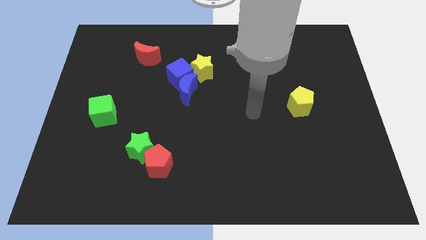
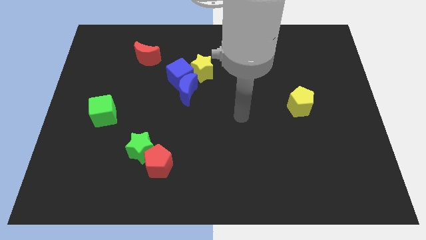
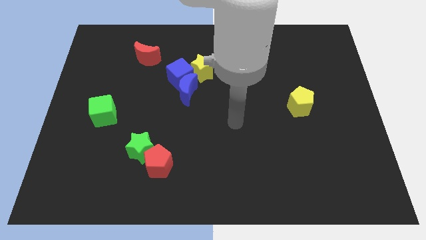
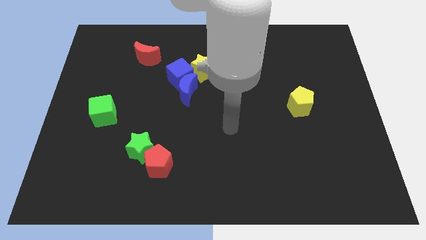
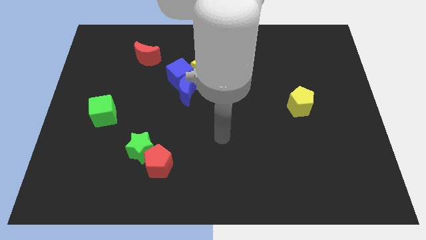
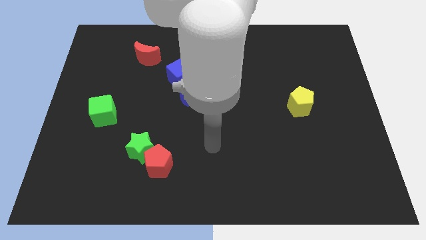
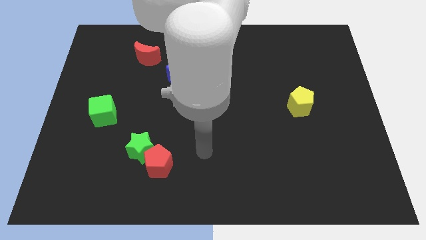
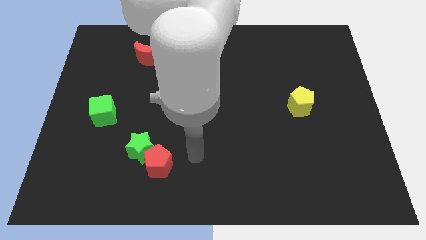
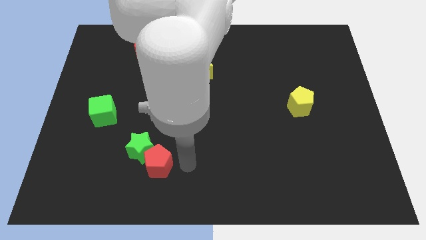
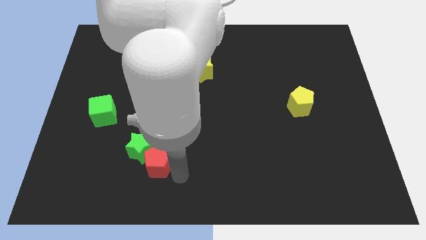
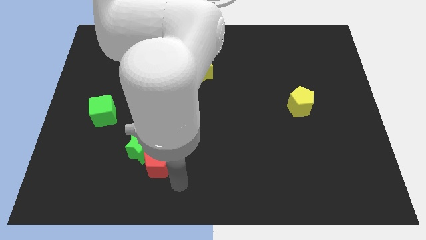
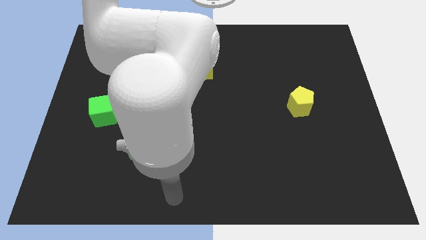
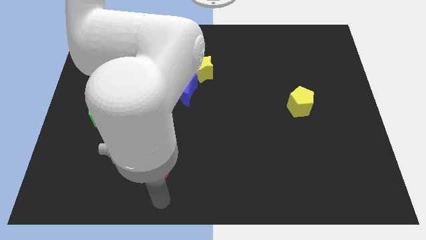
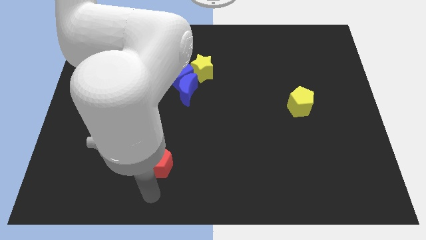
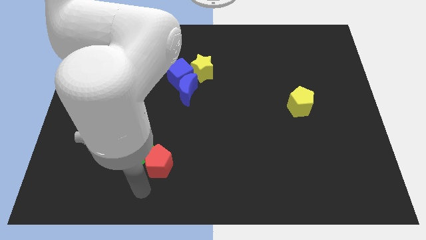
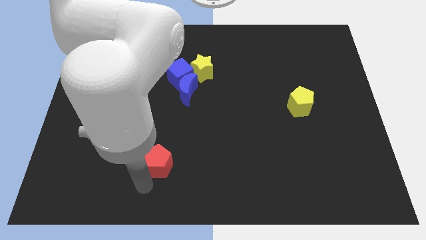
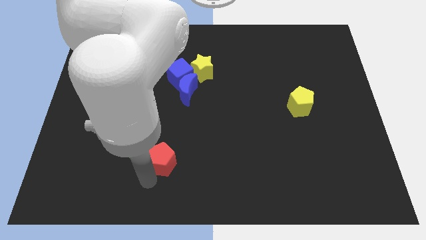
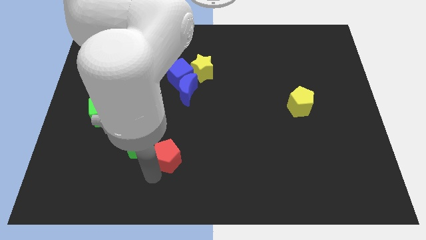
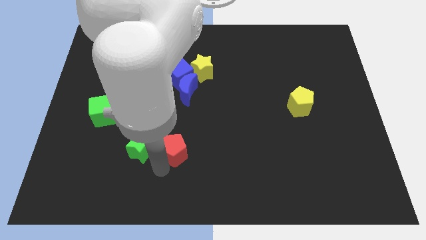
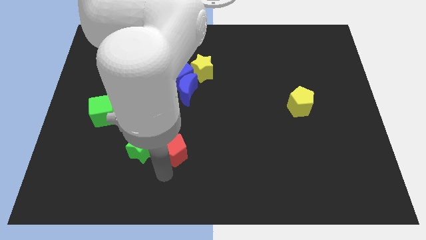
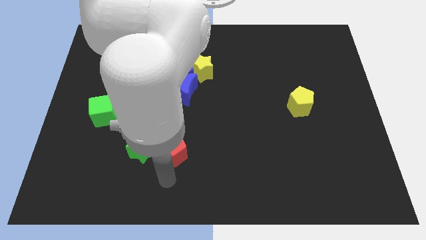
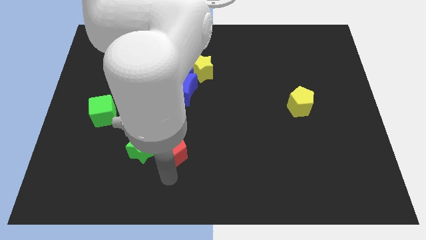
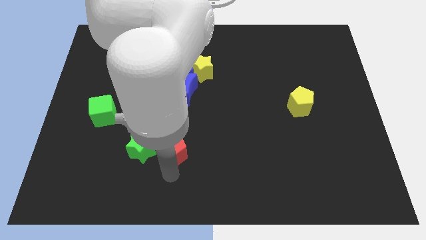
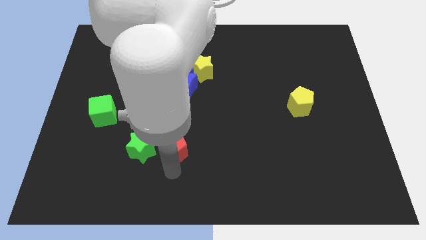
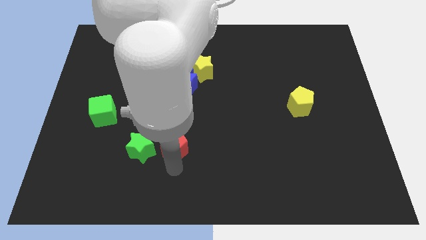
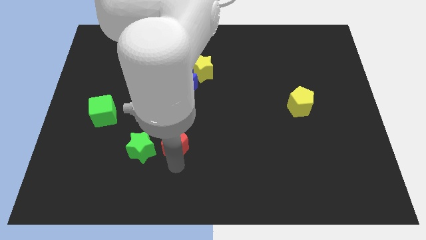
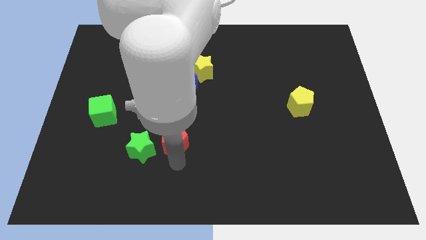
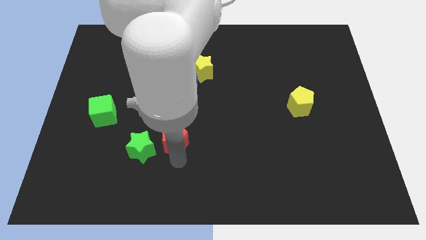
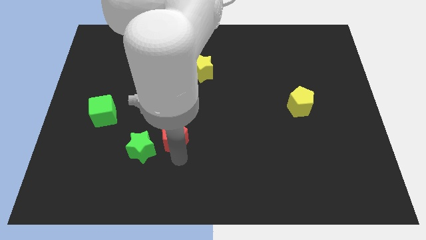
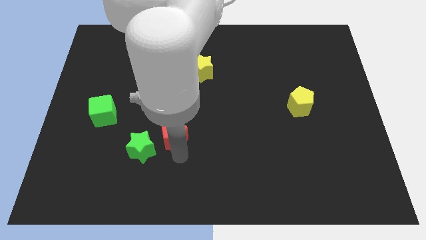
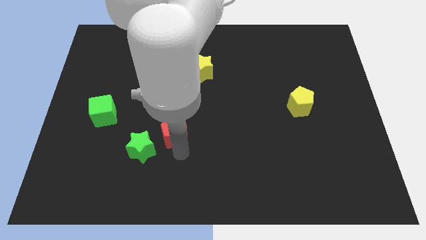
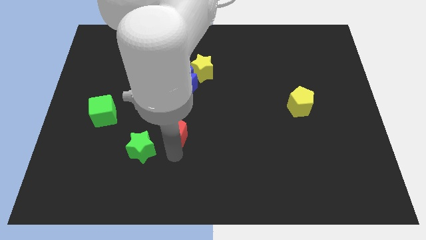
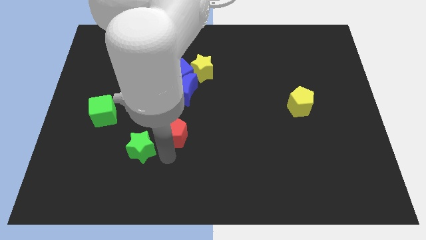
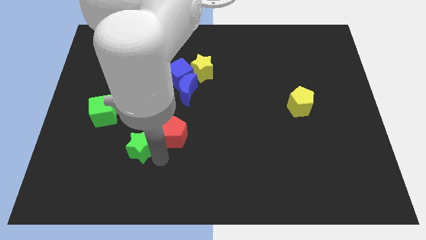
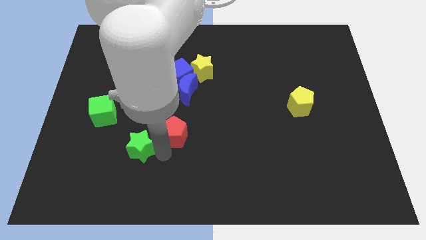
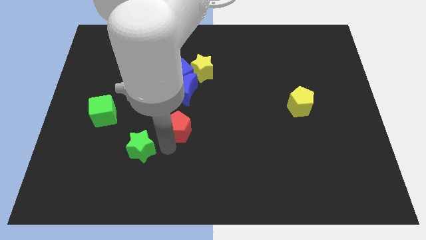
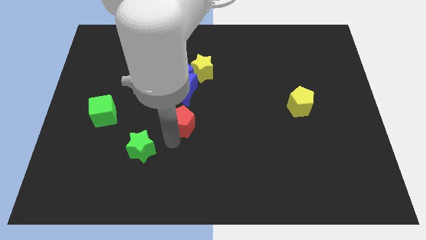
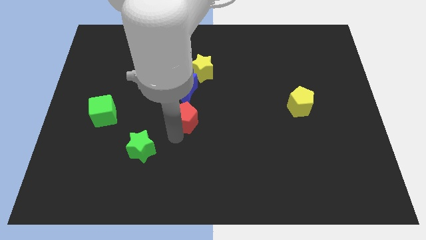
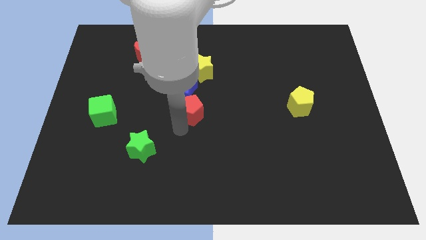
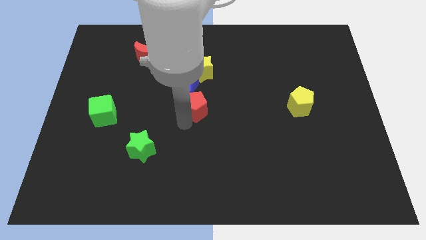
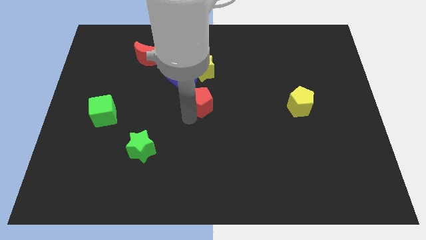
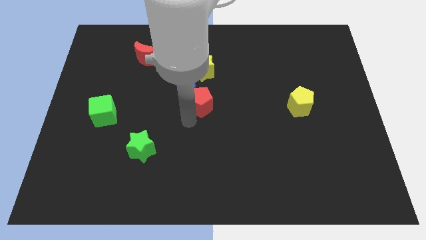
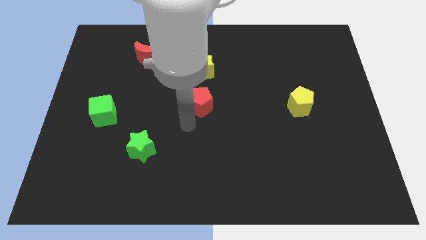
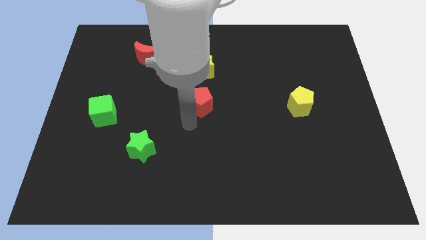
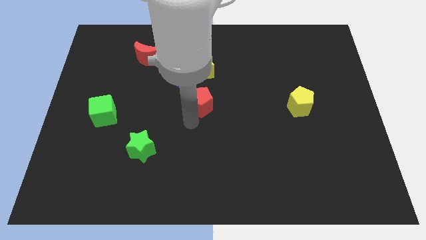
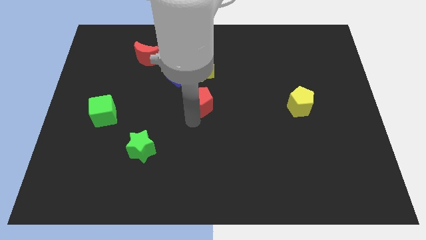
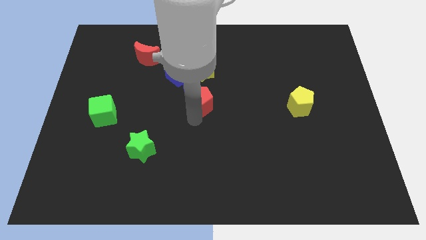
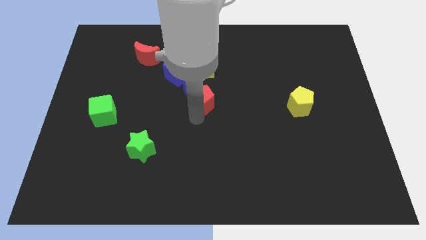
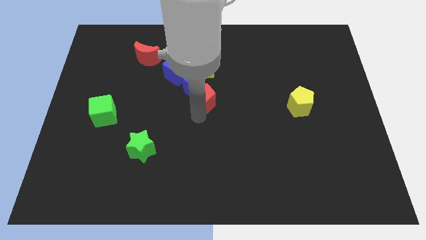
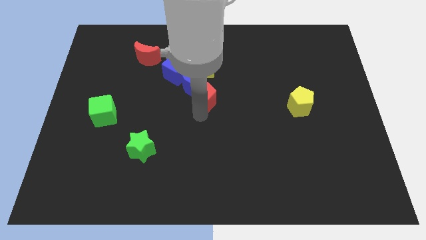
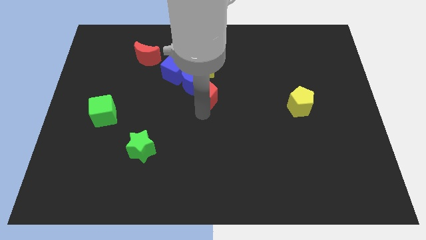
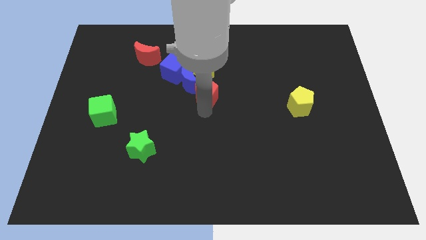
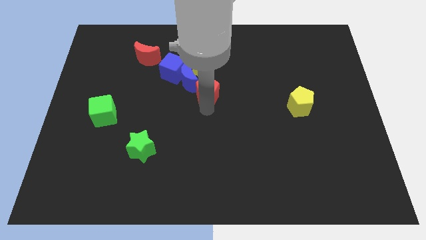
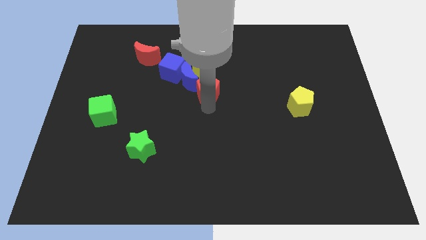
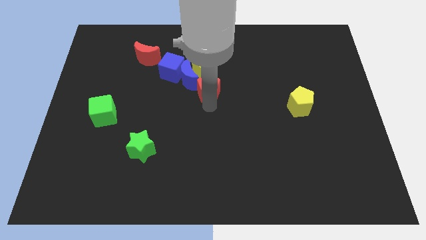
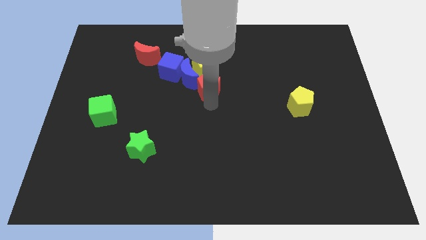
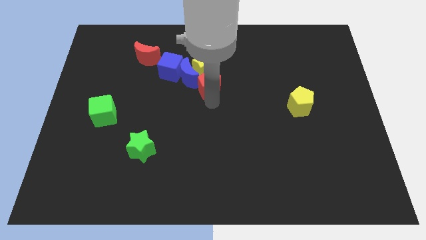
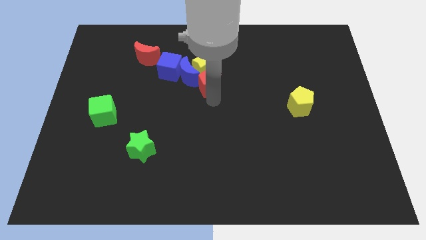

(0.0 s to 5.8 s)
push the red pentagon towards the yellow star
